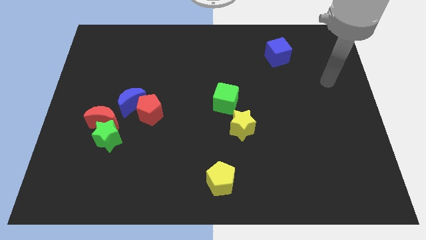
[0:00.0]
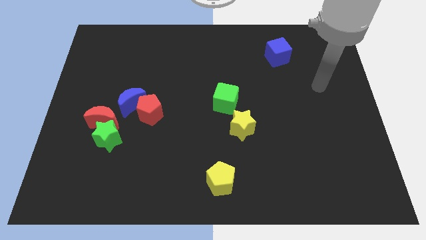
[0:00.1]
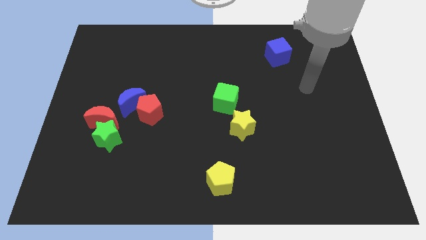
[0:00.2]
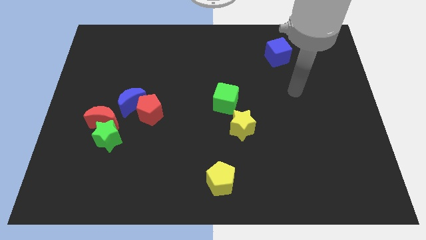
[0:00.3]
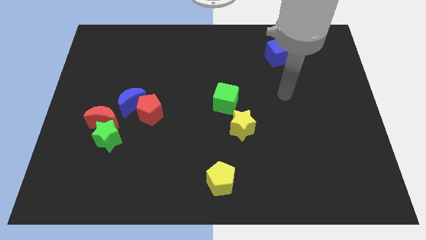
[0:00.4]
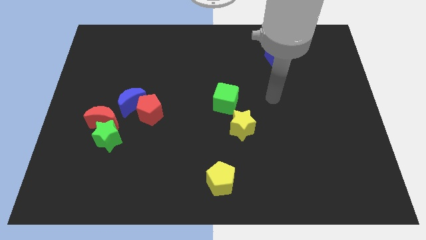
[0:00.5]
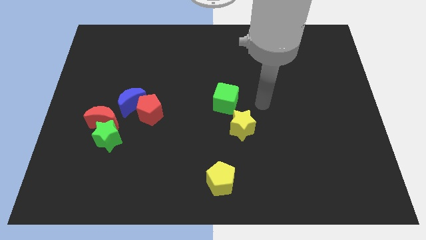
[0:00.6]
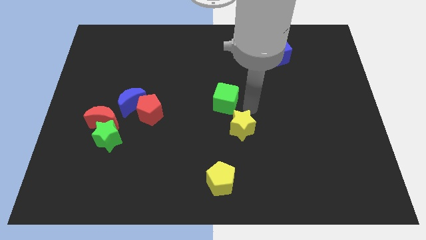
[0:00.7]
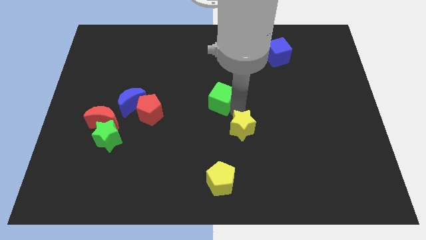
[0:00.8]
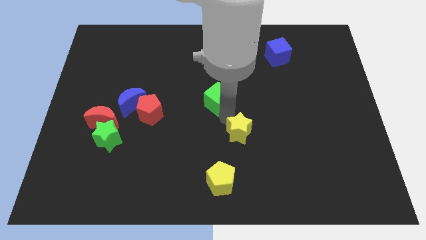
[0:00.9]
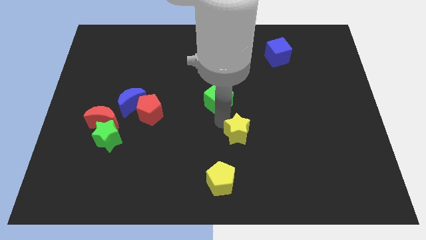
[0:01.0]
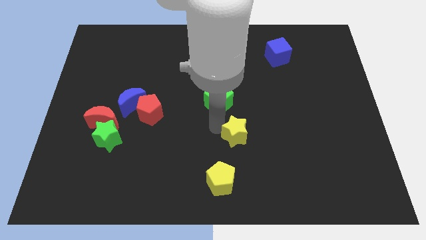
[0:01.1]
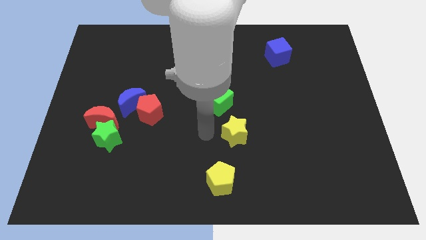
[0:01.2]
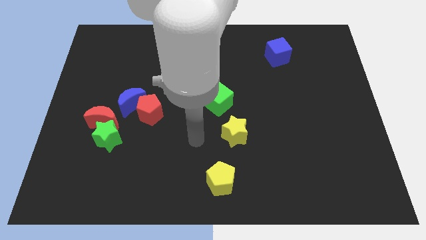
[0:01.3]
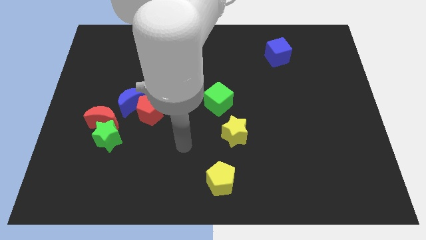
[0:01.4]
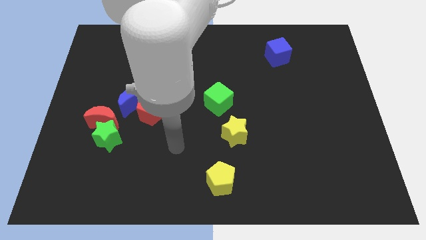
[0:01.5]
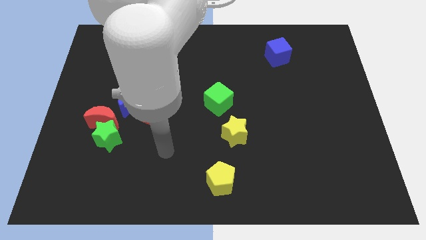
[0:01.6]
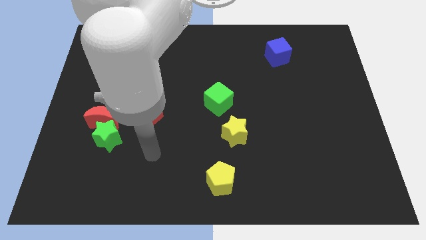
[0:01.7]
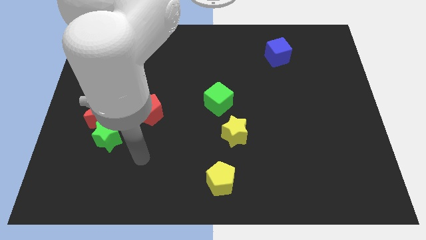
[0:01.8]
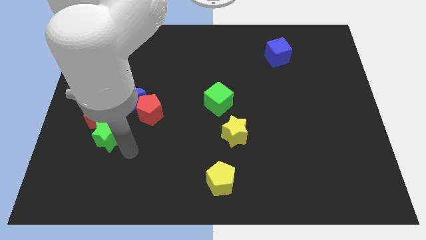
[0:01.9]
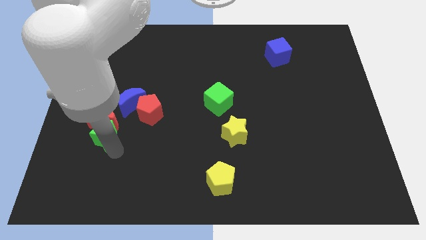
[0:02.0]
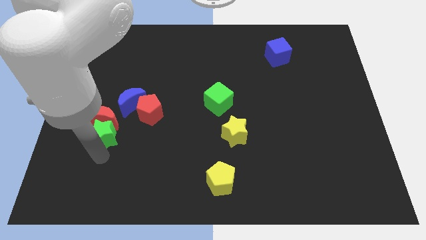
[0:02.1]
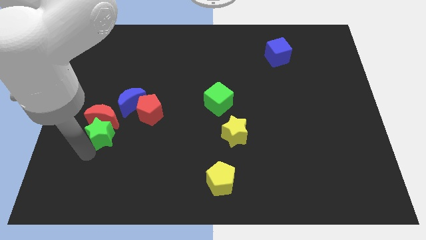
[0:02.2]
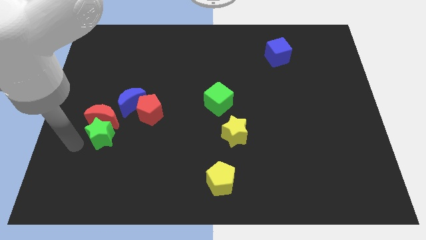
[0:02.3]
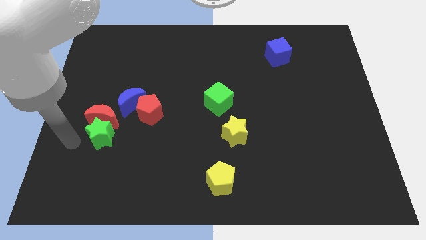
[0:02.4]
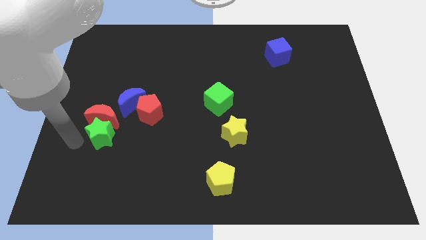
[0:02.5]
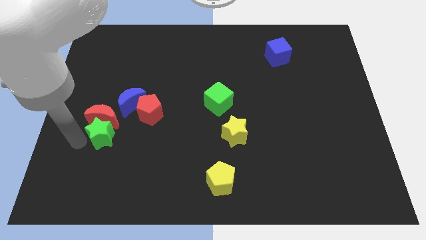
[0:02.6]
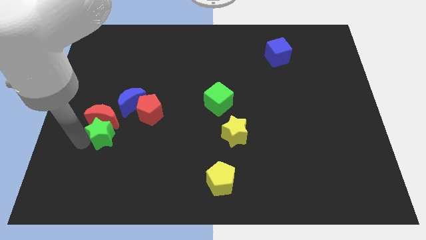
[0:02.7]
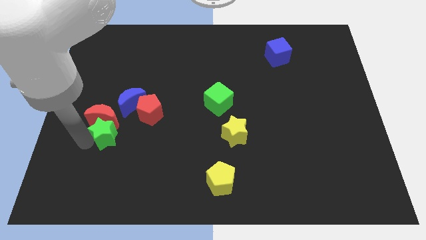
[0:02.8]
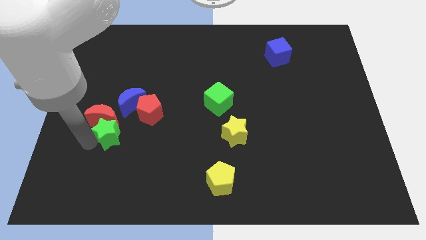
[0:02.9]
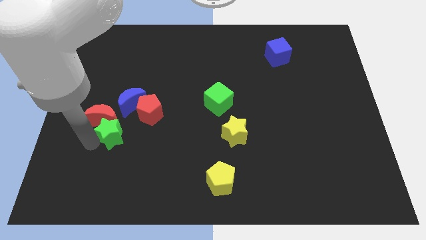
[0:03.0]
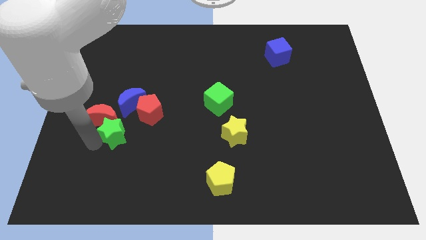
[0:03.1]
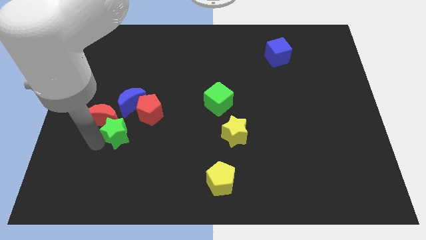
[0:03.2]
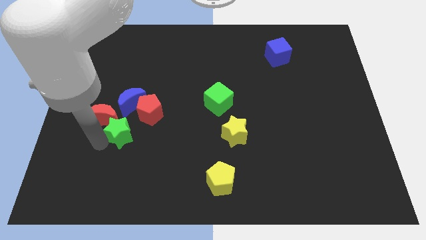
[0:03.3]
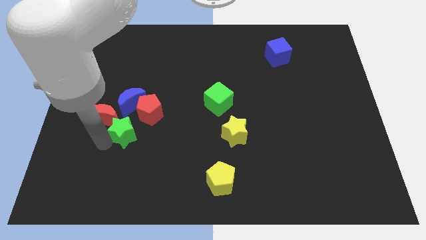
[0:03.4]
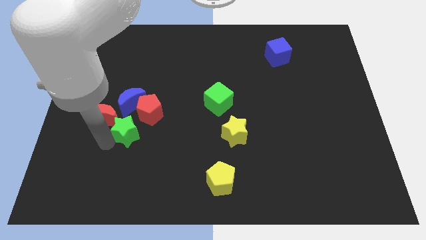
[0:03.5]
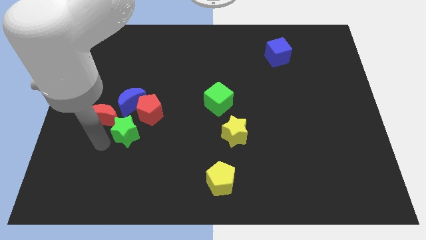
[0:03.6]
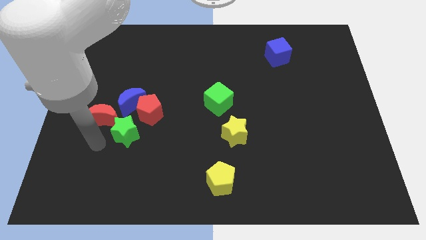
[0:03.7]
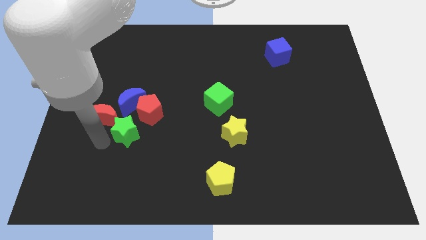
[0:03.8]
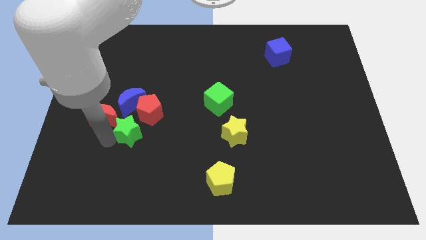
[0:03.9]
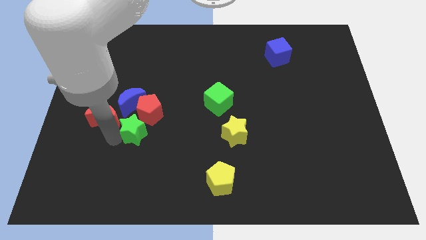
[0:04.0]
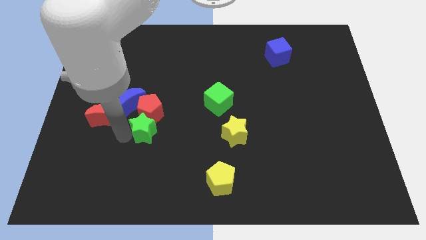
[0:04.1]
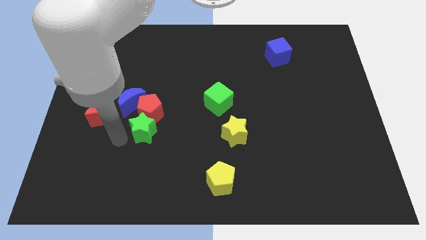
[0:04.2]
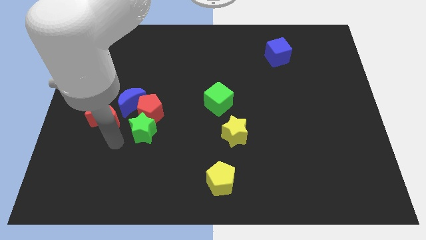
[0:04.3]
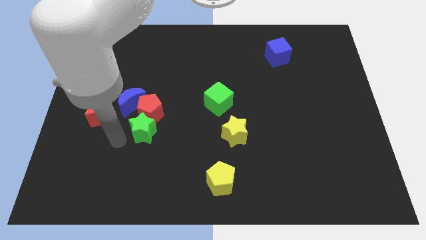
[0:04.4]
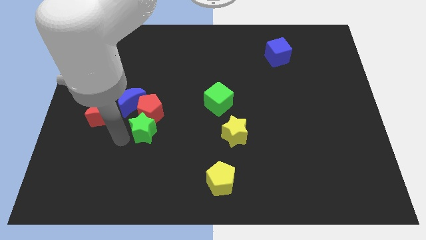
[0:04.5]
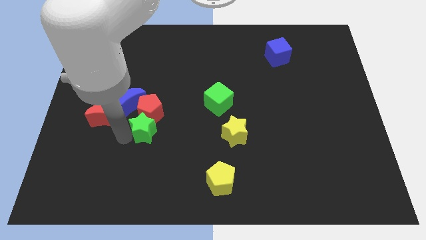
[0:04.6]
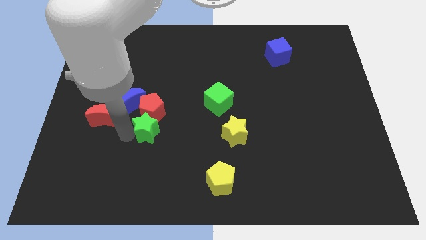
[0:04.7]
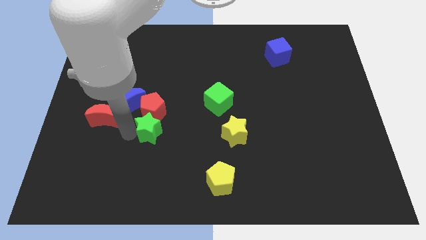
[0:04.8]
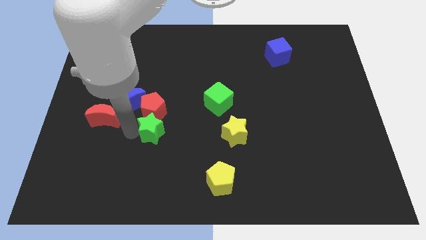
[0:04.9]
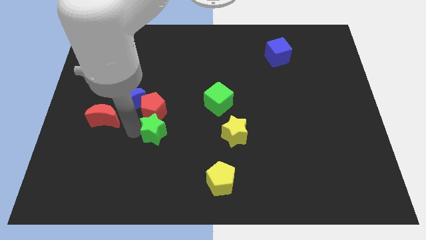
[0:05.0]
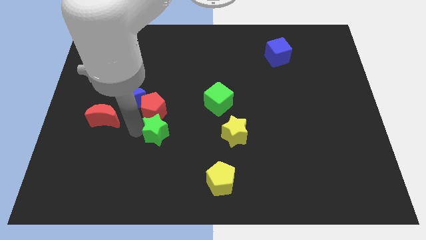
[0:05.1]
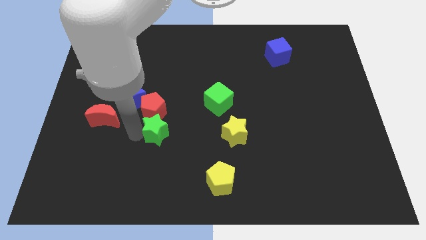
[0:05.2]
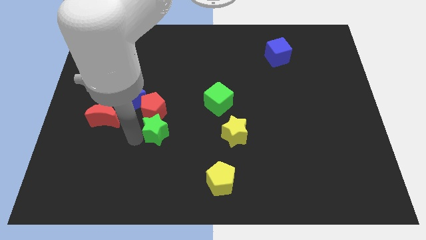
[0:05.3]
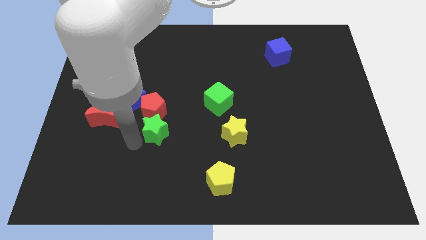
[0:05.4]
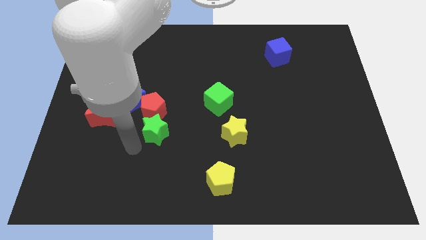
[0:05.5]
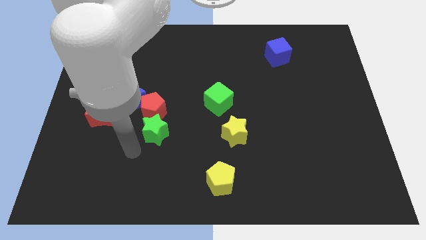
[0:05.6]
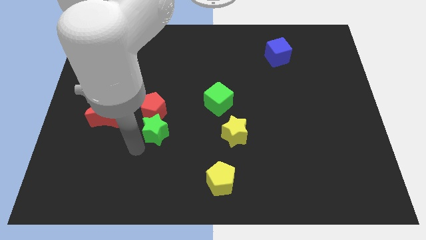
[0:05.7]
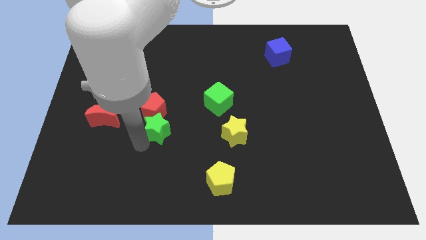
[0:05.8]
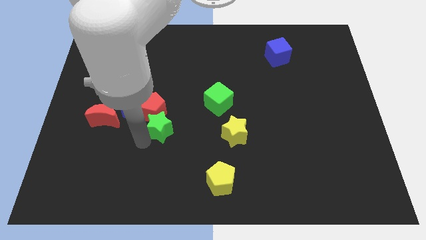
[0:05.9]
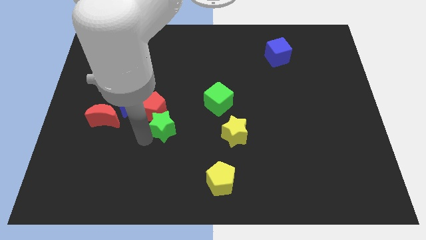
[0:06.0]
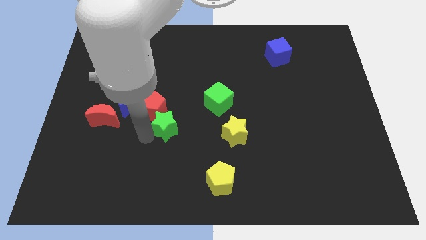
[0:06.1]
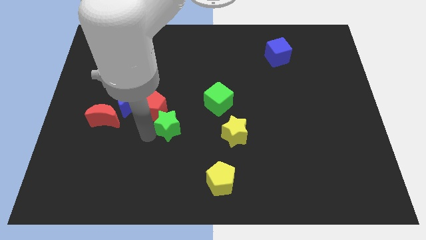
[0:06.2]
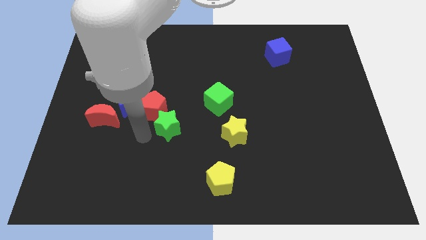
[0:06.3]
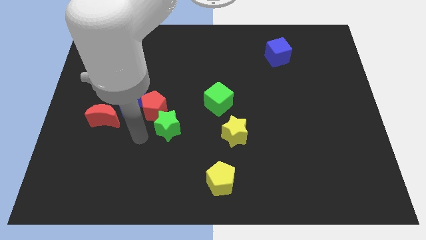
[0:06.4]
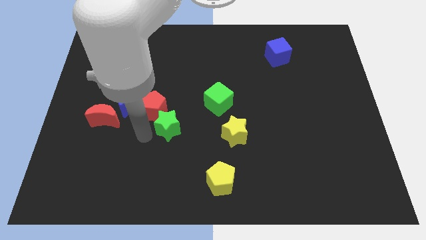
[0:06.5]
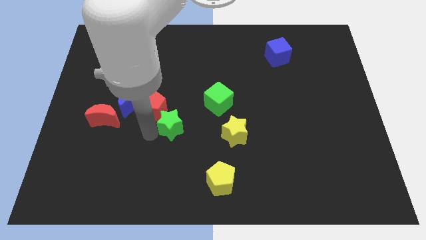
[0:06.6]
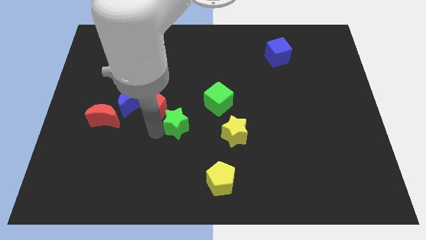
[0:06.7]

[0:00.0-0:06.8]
slide the green star to the bottom left of the green cube

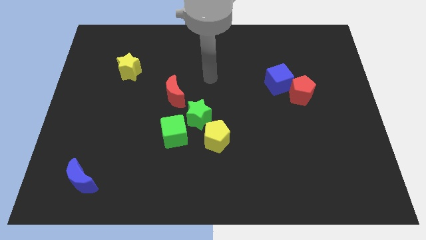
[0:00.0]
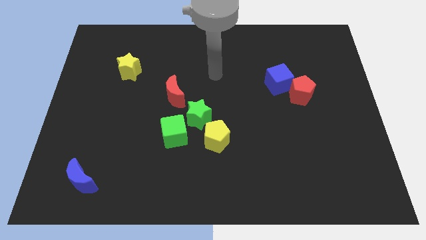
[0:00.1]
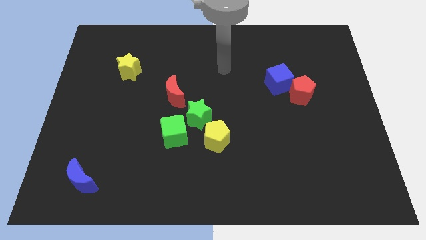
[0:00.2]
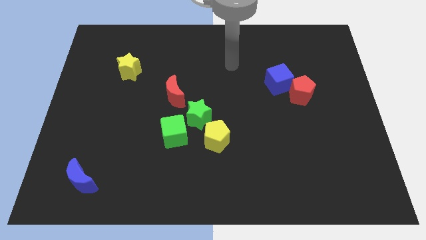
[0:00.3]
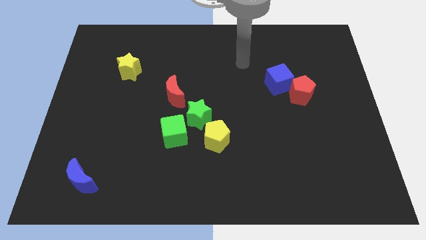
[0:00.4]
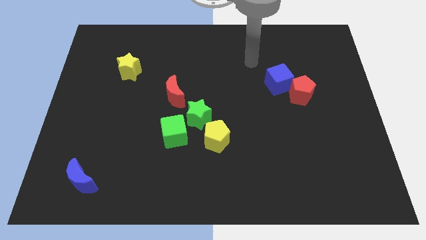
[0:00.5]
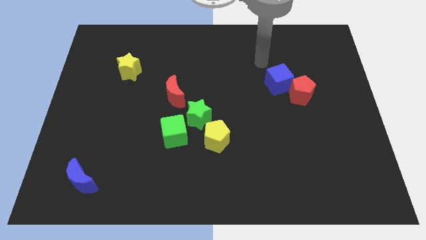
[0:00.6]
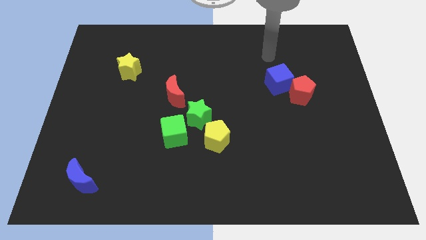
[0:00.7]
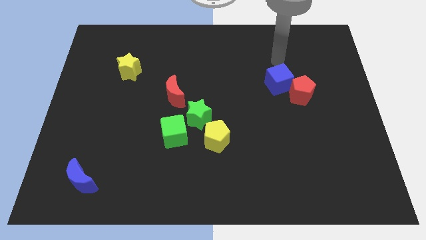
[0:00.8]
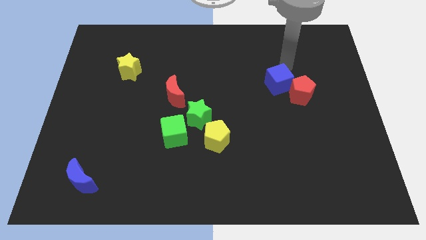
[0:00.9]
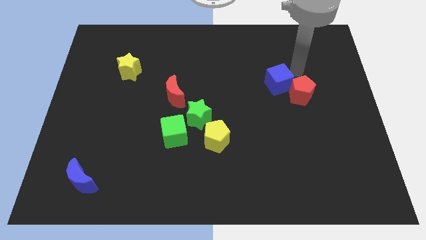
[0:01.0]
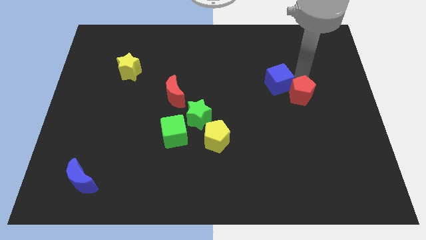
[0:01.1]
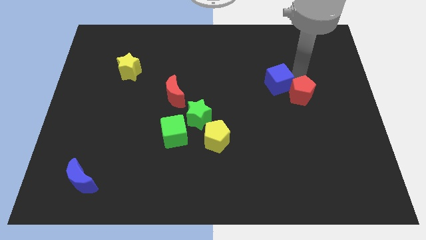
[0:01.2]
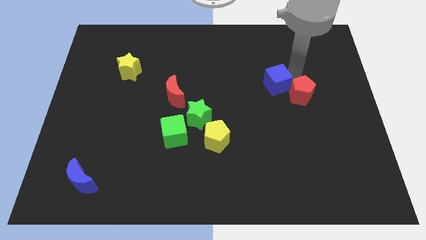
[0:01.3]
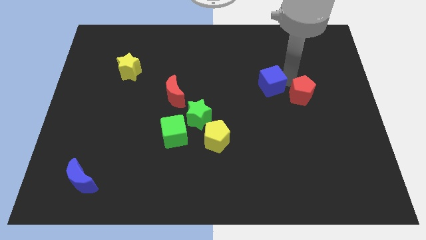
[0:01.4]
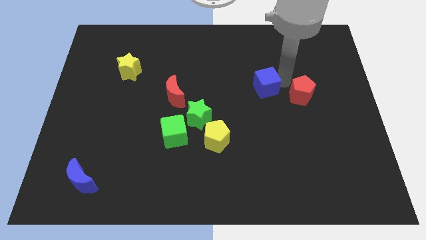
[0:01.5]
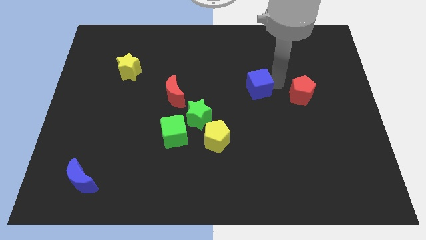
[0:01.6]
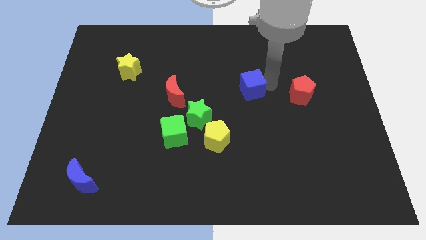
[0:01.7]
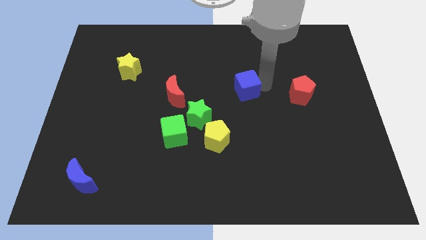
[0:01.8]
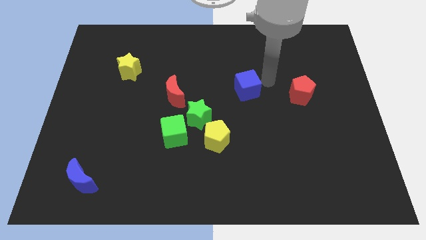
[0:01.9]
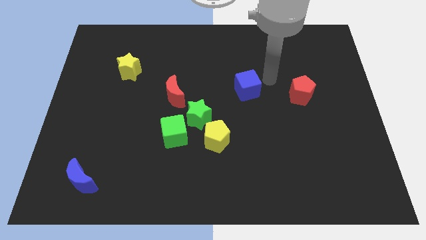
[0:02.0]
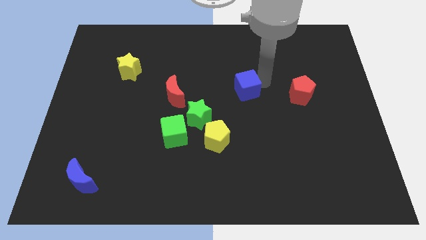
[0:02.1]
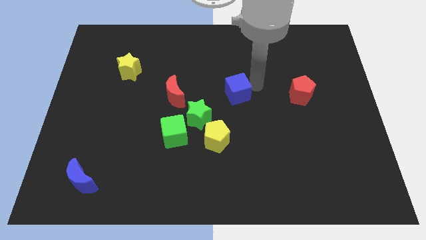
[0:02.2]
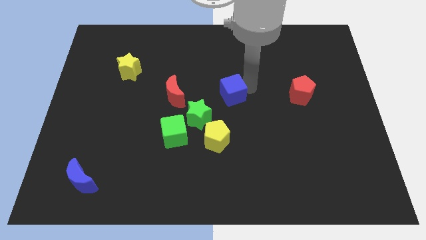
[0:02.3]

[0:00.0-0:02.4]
slide the blue cube above the yellow pentagon
